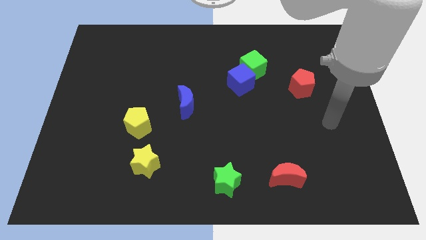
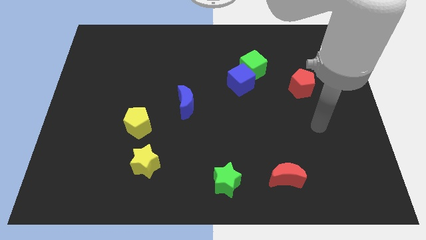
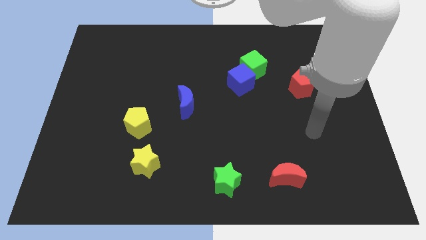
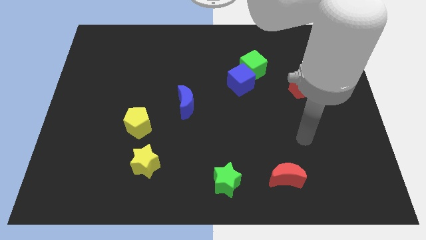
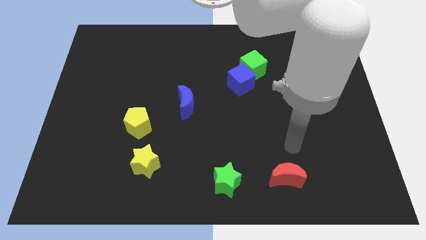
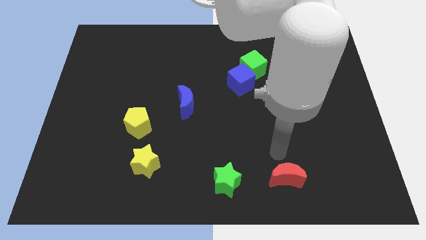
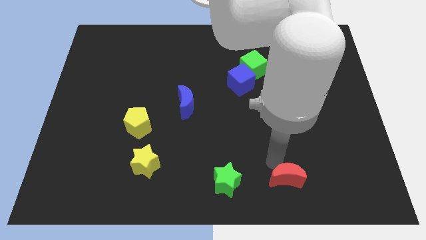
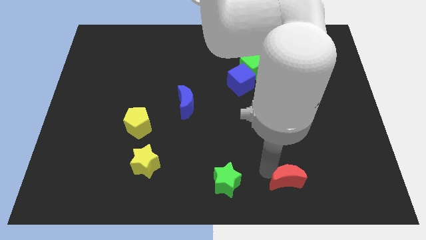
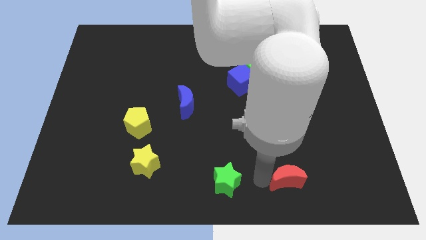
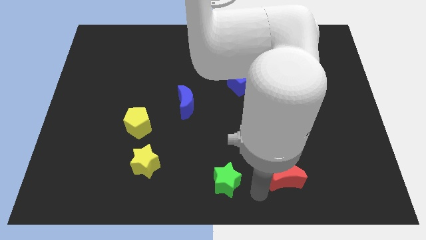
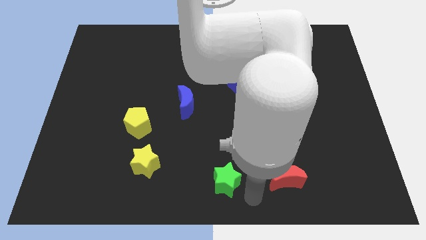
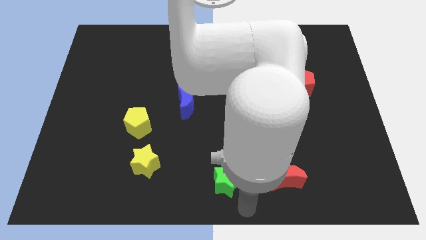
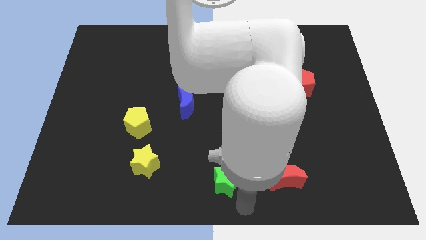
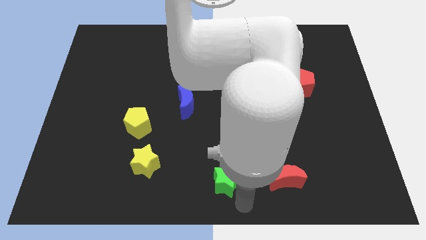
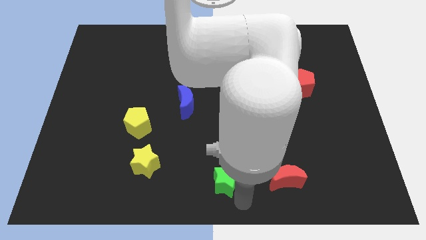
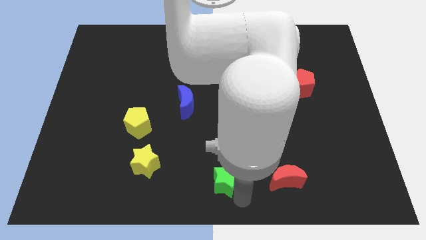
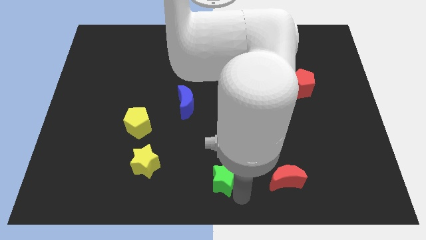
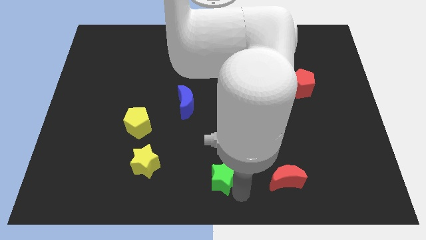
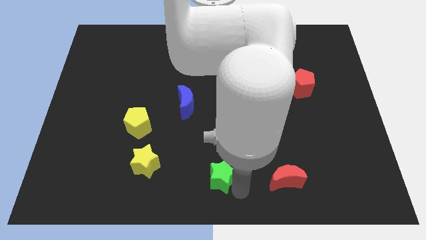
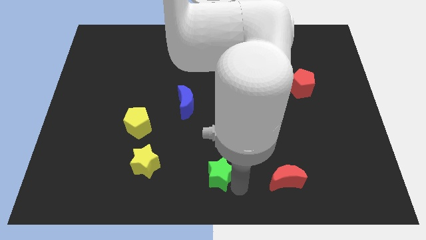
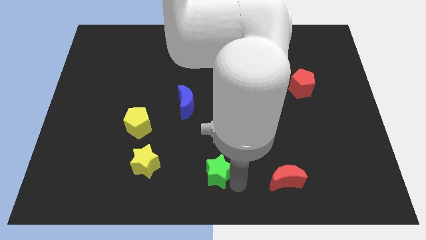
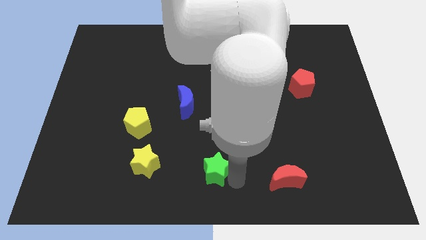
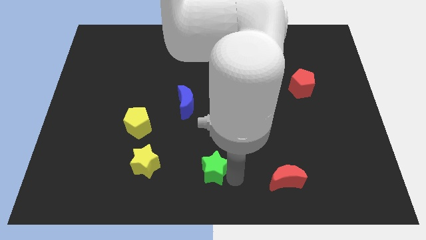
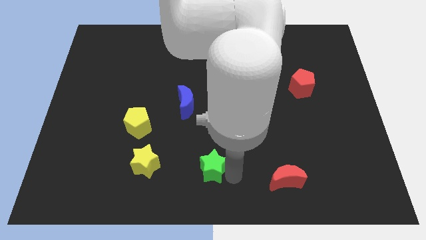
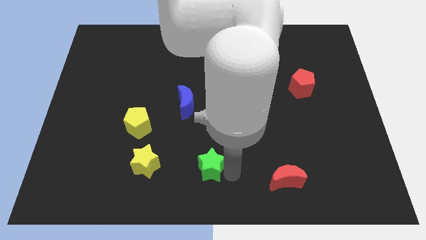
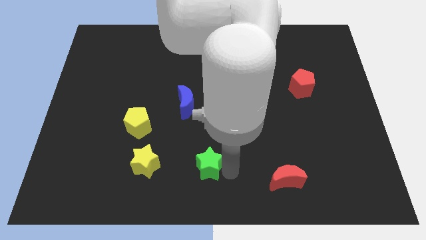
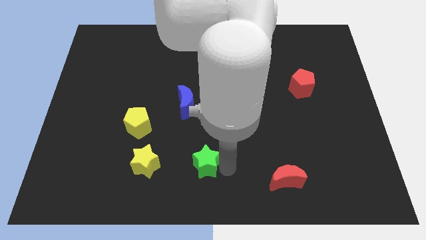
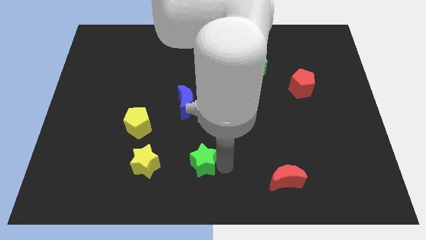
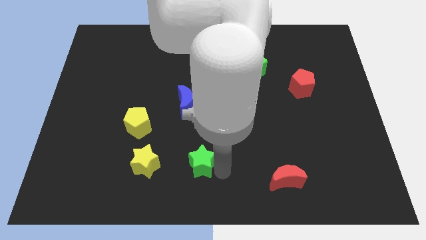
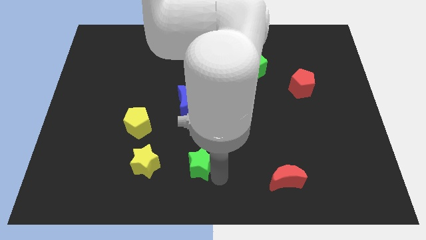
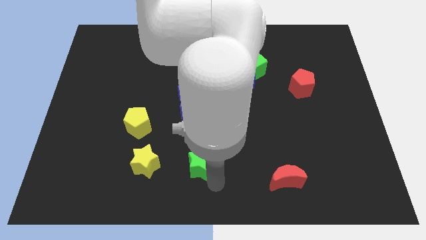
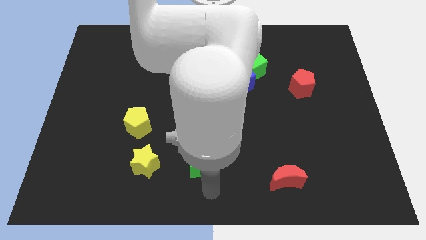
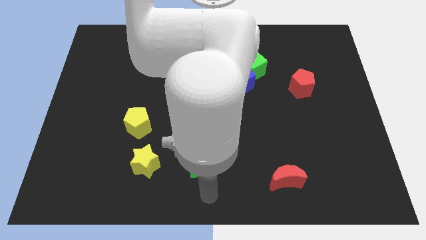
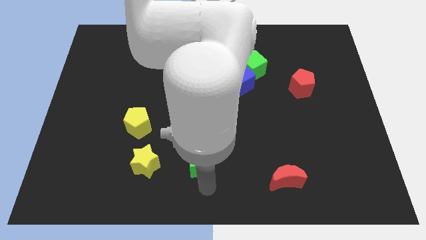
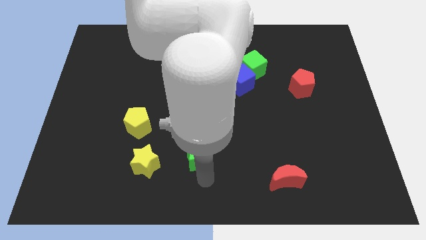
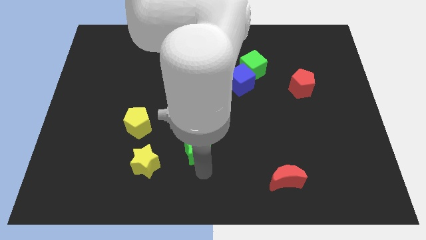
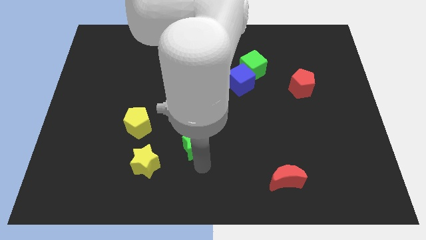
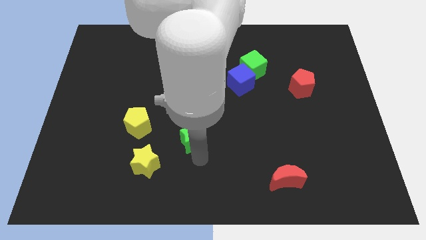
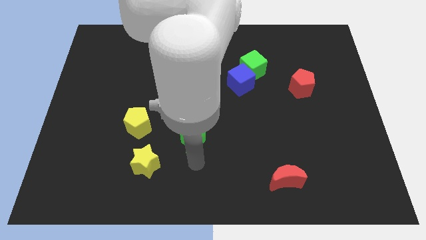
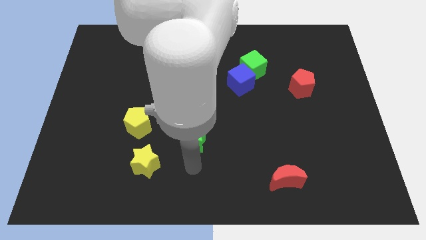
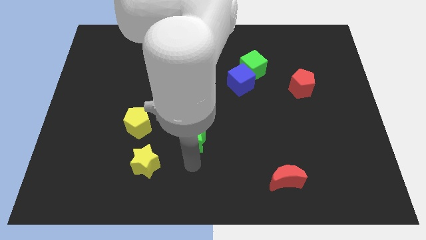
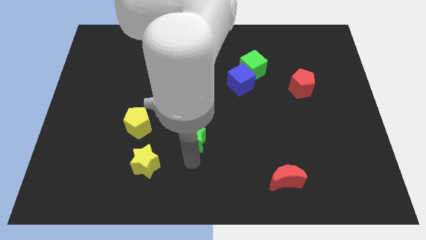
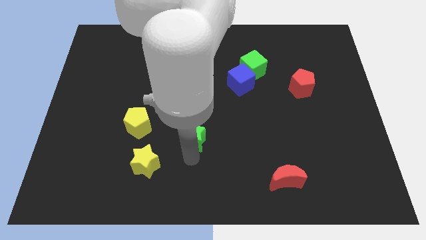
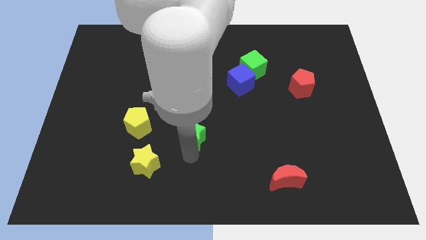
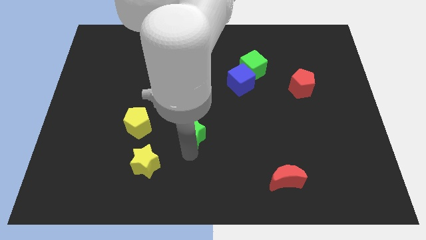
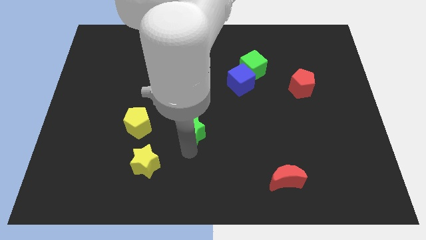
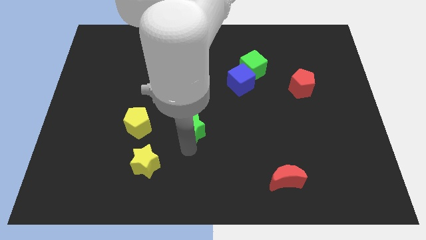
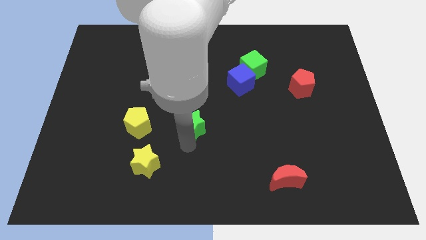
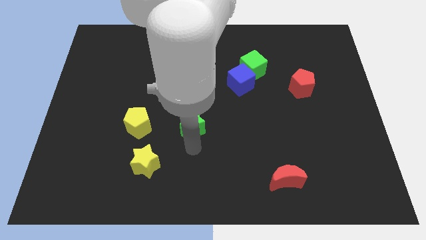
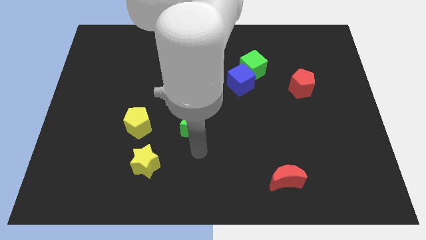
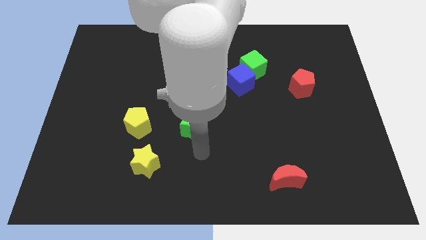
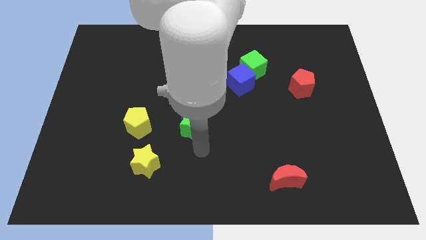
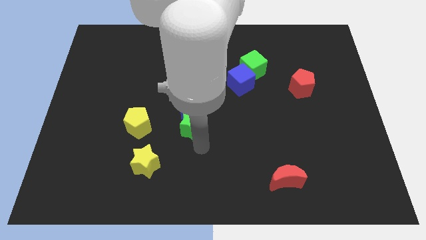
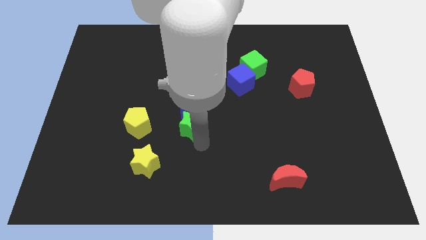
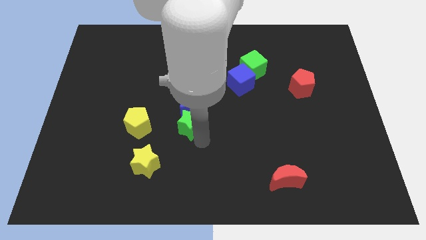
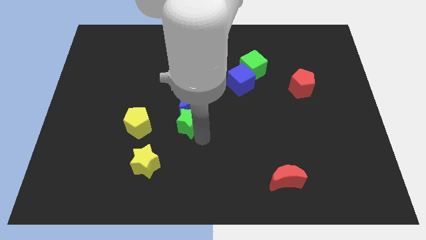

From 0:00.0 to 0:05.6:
put the green star towards the blue moon

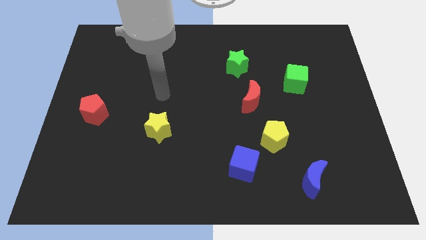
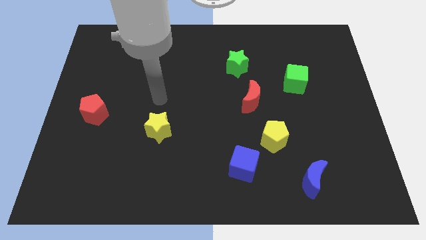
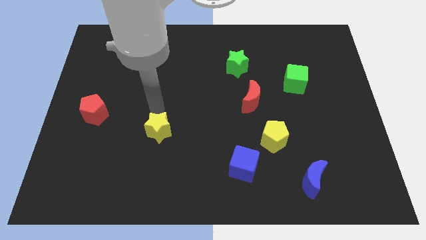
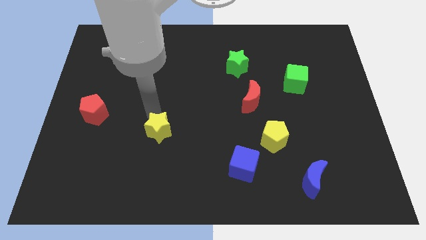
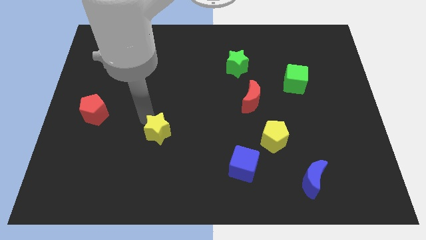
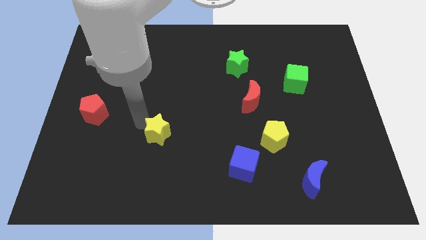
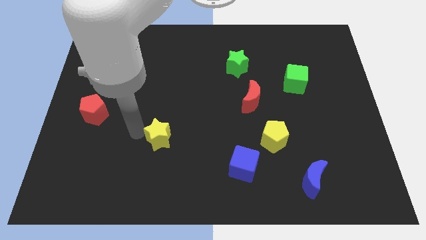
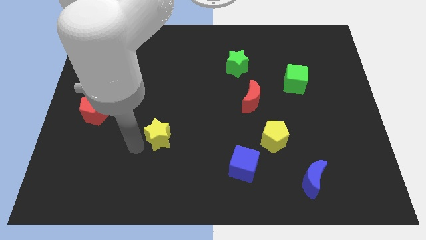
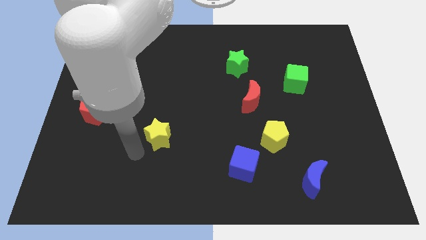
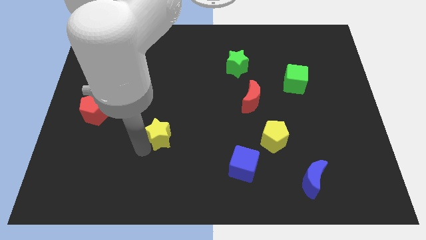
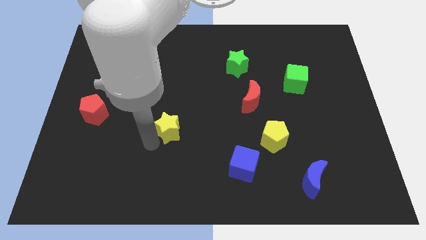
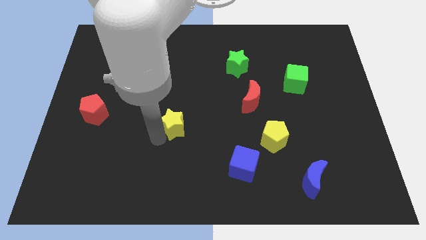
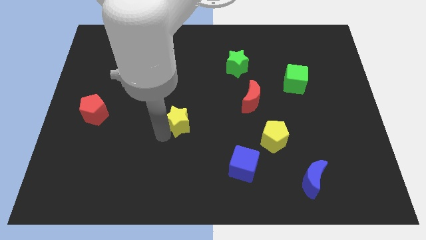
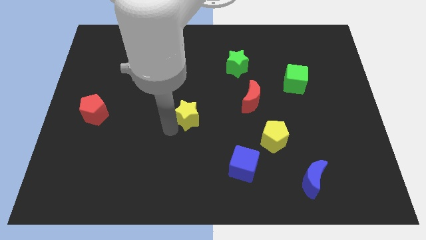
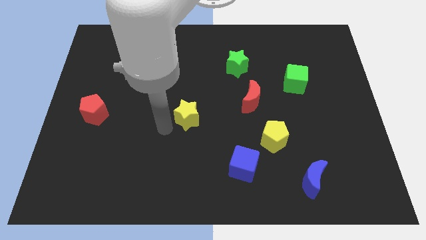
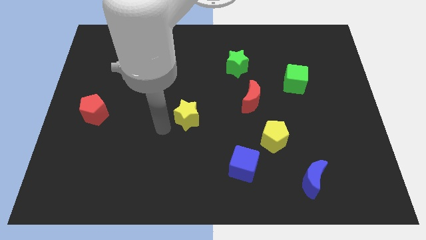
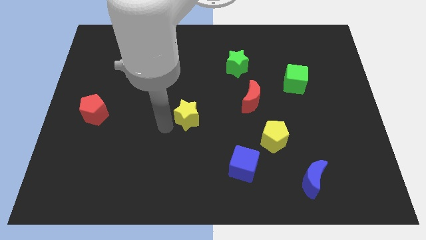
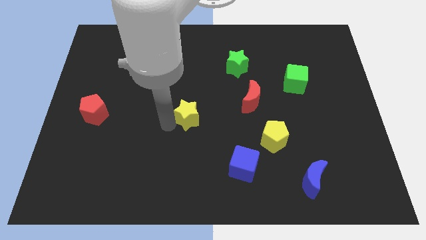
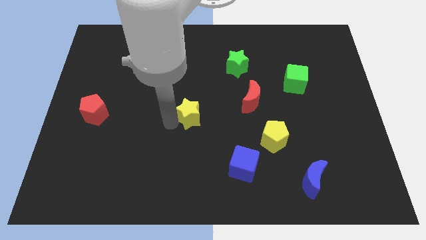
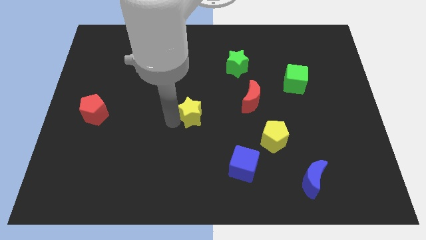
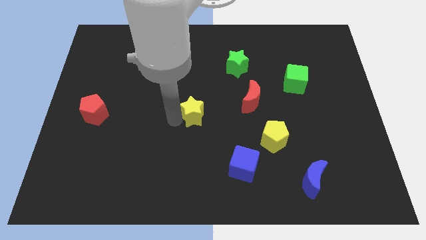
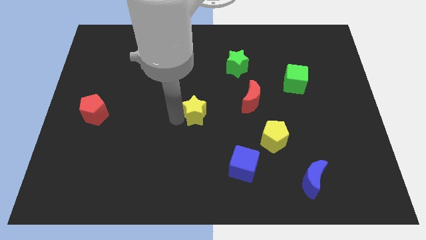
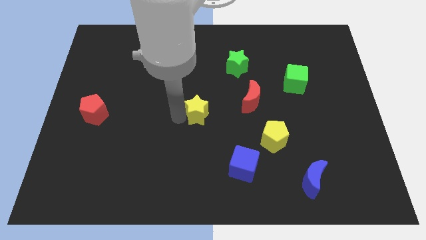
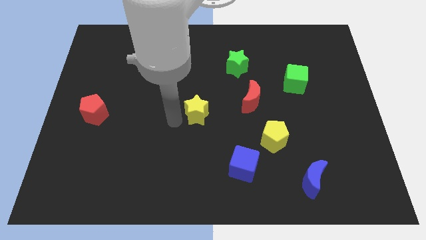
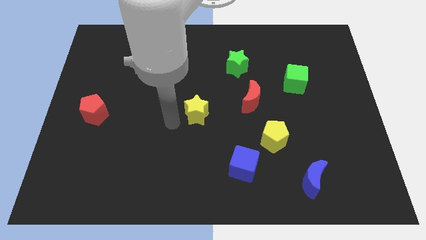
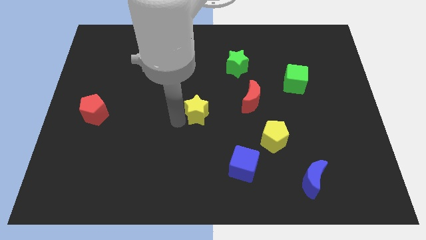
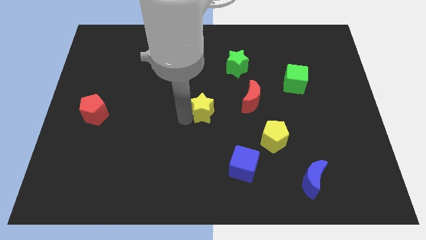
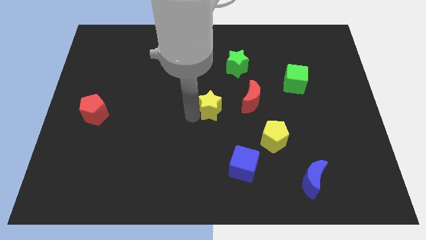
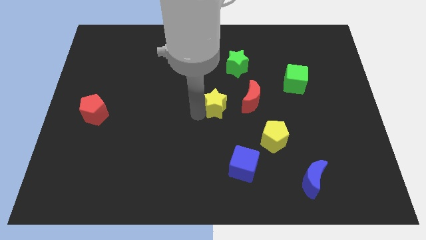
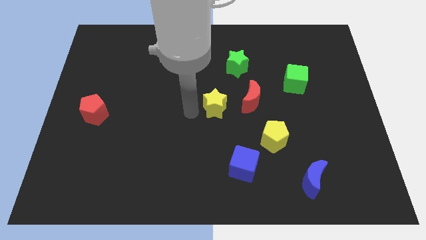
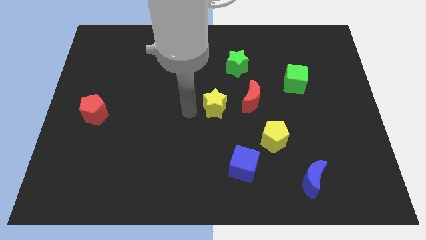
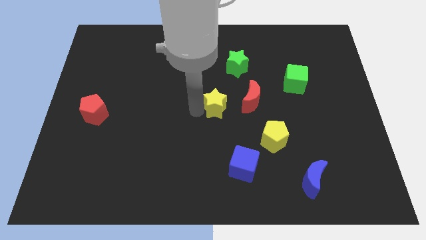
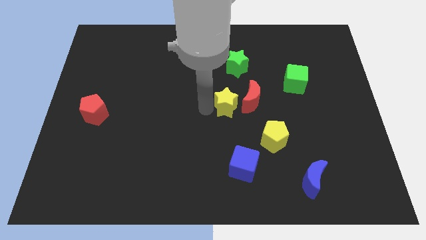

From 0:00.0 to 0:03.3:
put the yellow star next to the red moon
